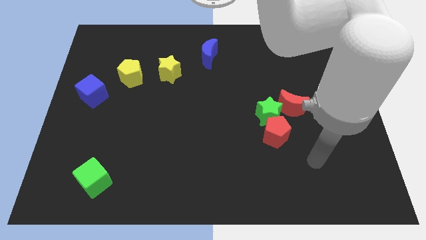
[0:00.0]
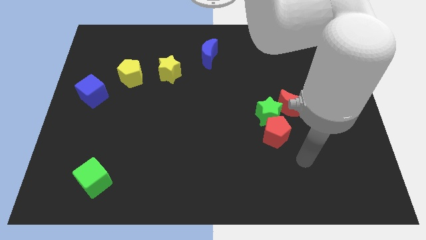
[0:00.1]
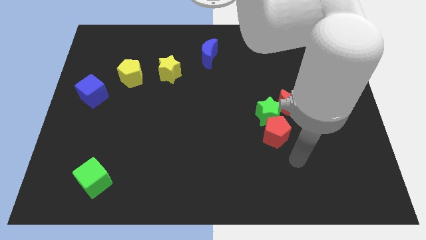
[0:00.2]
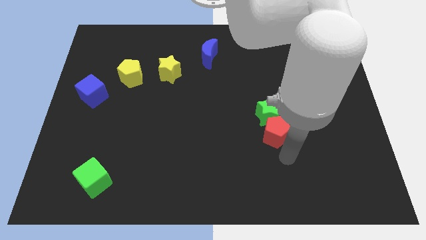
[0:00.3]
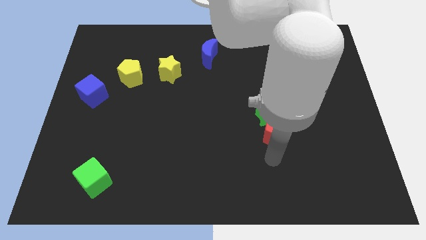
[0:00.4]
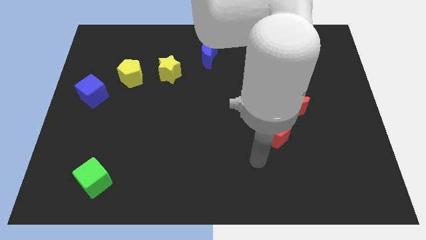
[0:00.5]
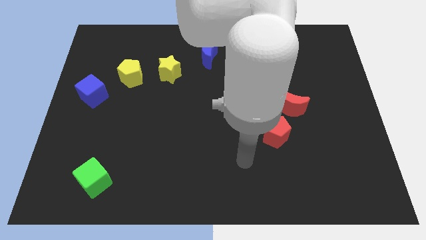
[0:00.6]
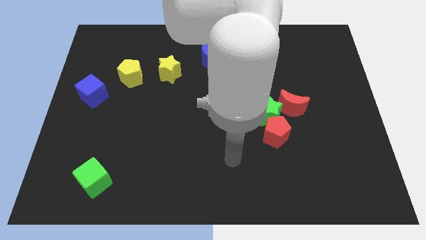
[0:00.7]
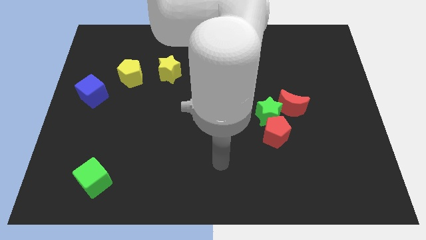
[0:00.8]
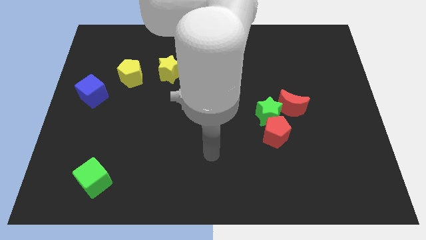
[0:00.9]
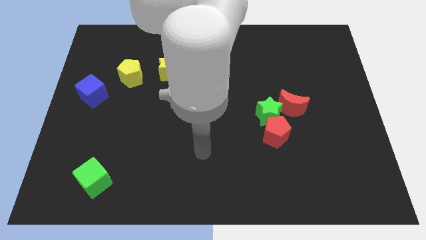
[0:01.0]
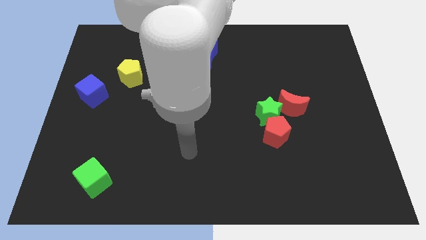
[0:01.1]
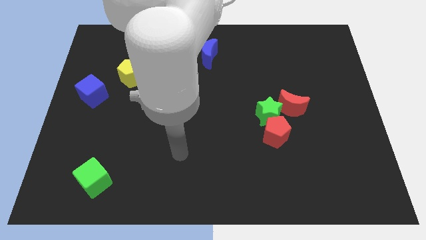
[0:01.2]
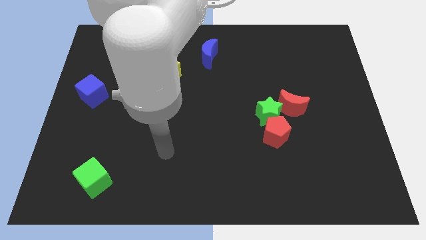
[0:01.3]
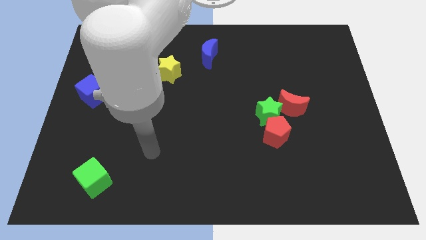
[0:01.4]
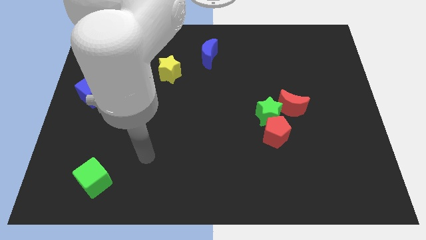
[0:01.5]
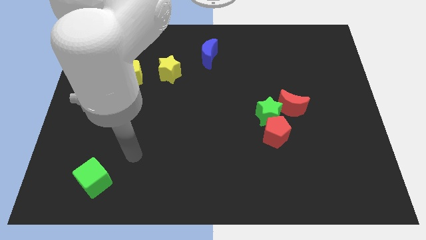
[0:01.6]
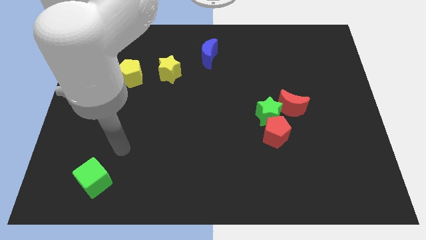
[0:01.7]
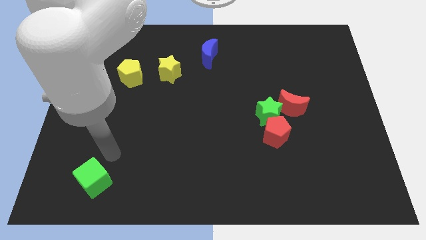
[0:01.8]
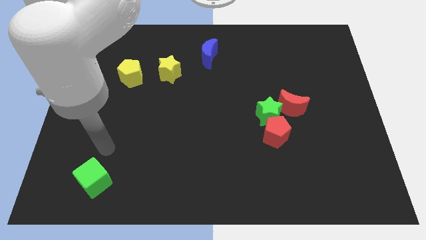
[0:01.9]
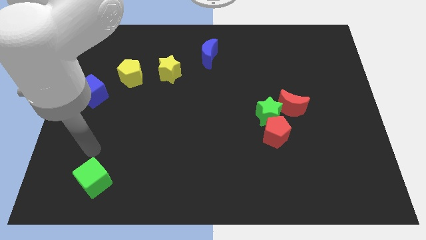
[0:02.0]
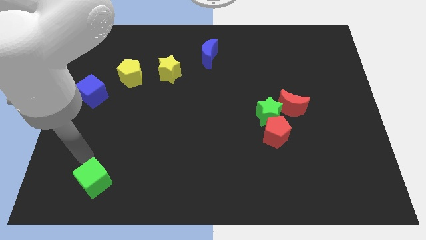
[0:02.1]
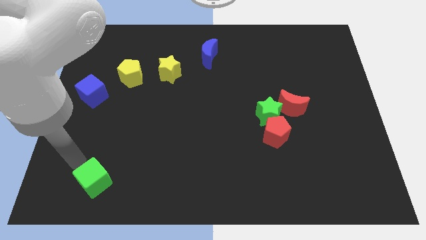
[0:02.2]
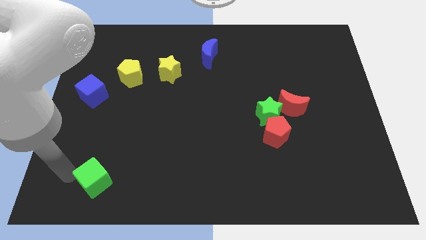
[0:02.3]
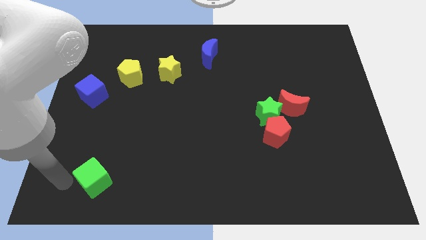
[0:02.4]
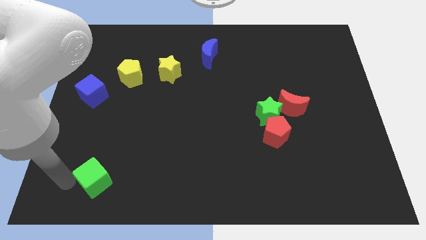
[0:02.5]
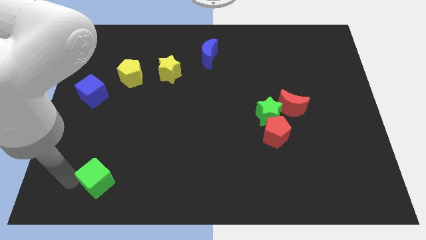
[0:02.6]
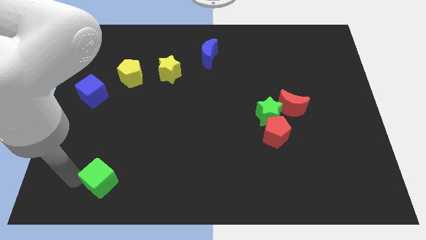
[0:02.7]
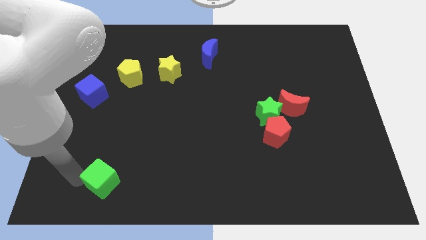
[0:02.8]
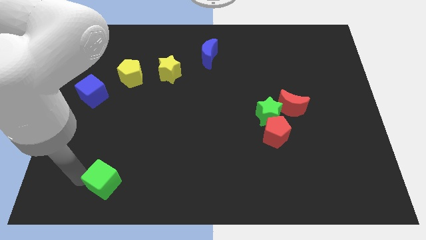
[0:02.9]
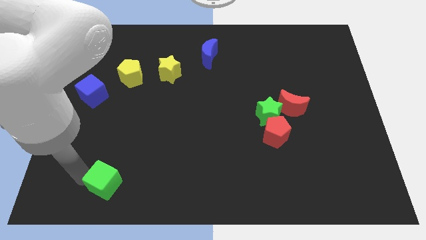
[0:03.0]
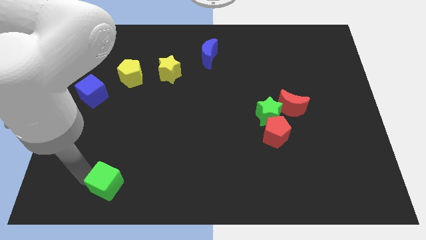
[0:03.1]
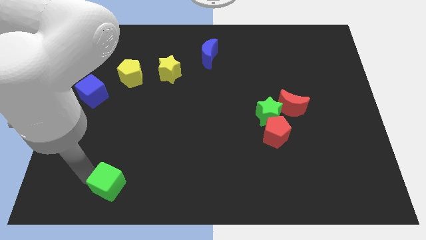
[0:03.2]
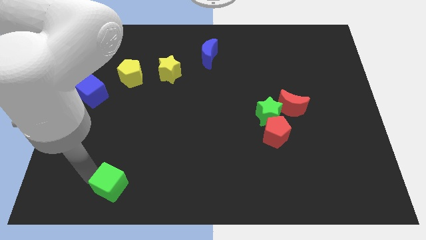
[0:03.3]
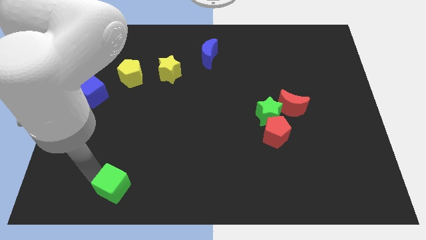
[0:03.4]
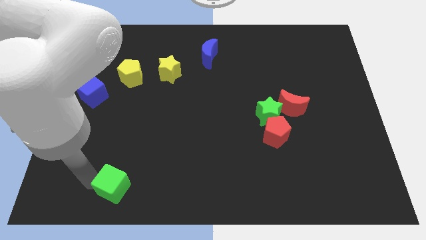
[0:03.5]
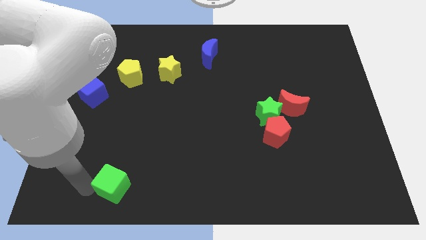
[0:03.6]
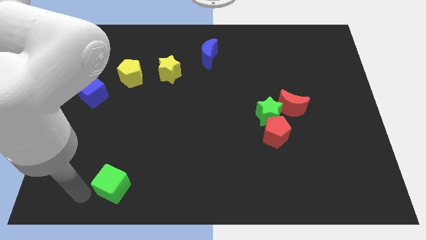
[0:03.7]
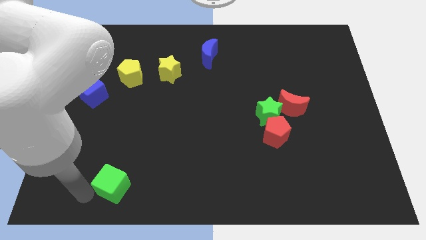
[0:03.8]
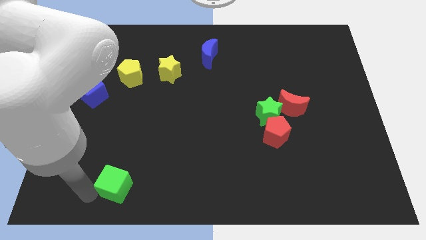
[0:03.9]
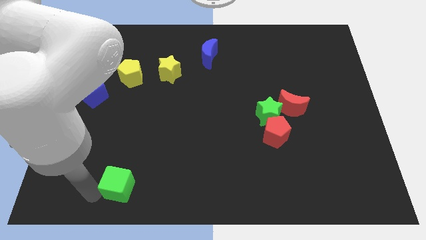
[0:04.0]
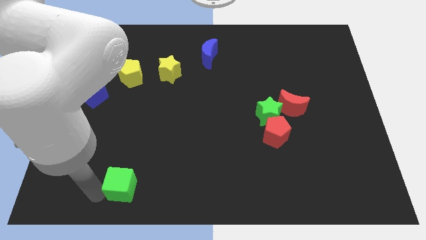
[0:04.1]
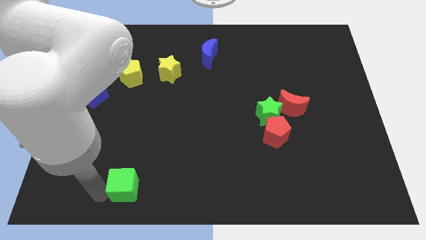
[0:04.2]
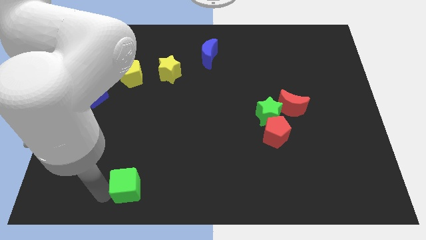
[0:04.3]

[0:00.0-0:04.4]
move the green cube a bit to the right

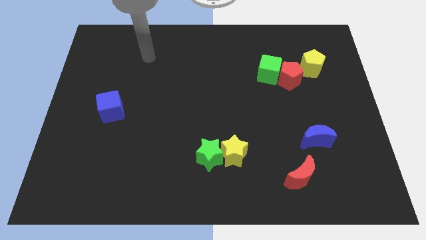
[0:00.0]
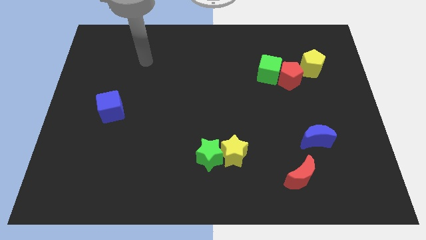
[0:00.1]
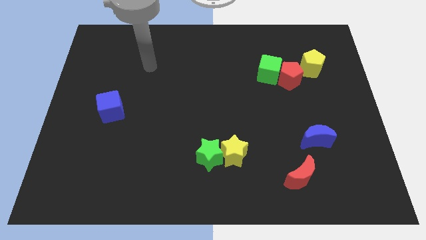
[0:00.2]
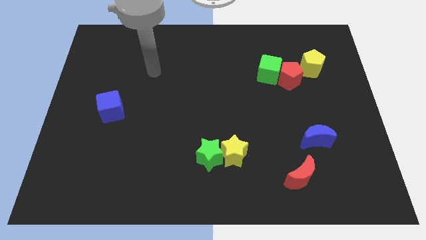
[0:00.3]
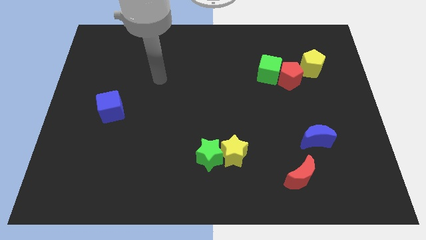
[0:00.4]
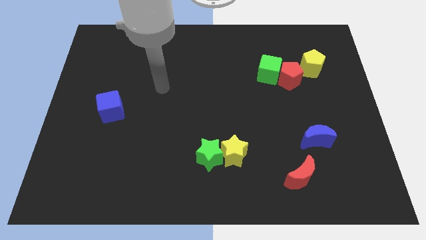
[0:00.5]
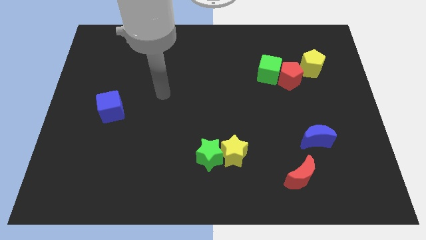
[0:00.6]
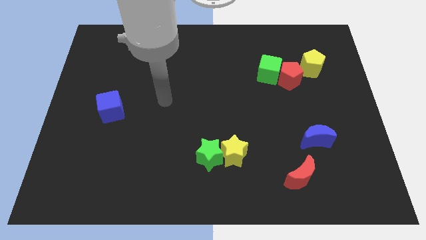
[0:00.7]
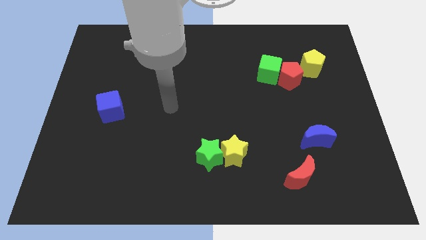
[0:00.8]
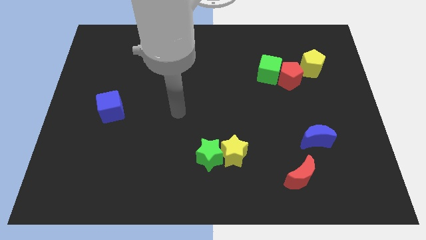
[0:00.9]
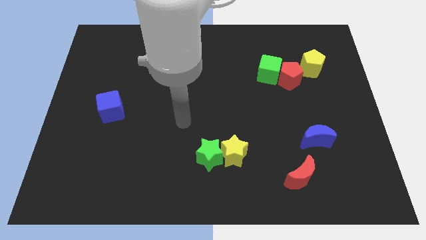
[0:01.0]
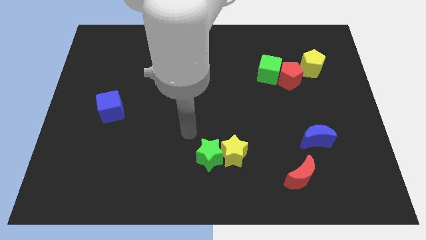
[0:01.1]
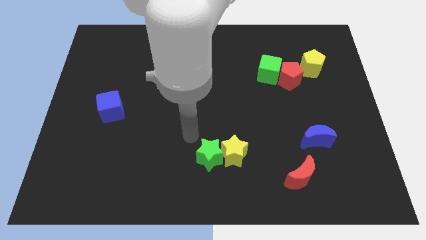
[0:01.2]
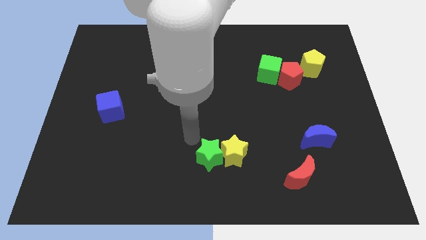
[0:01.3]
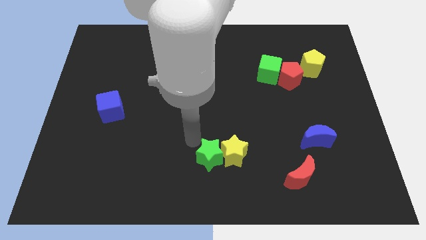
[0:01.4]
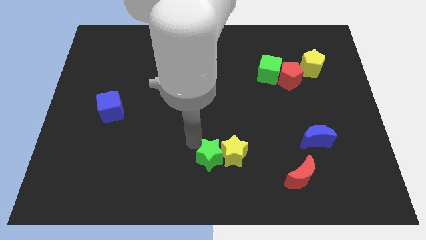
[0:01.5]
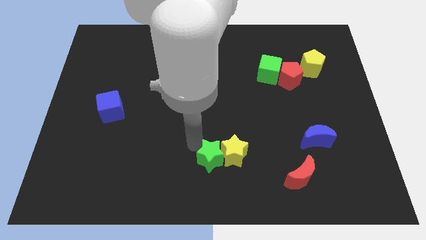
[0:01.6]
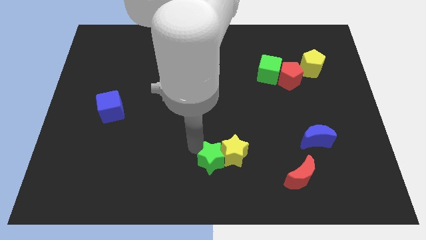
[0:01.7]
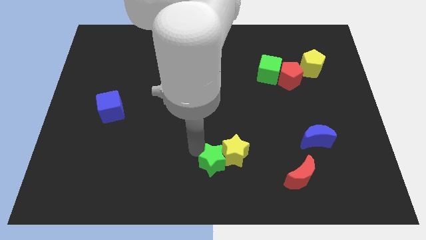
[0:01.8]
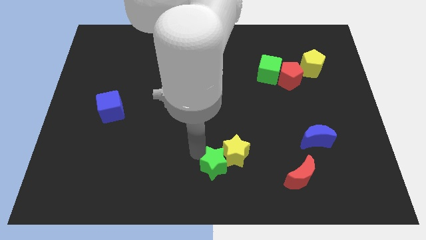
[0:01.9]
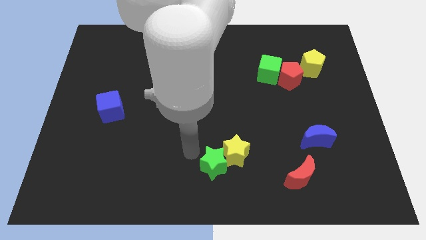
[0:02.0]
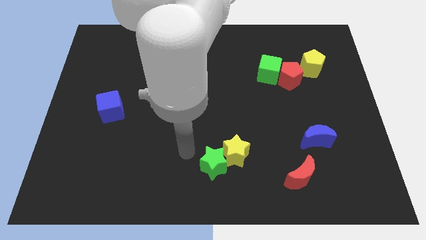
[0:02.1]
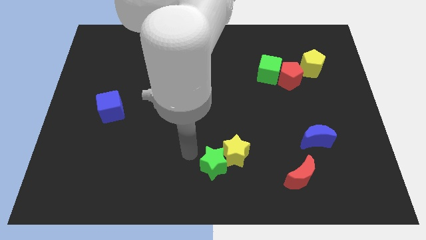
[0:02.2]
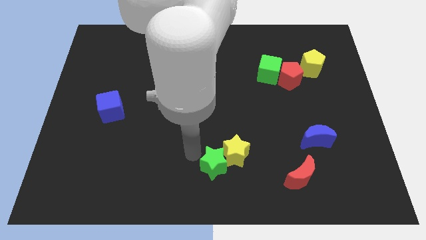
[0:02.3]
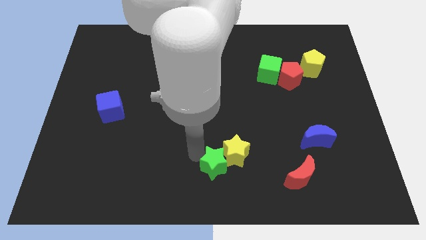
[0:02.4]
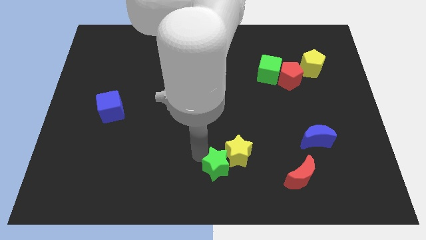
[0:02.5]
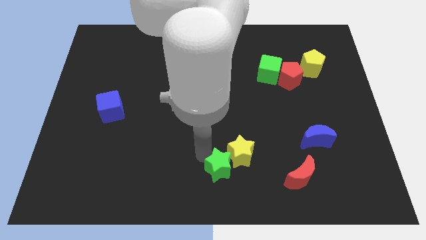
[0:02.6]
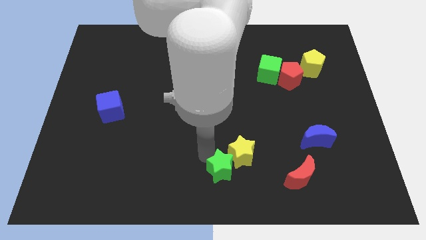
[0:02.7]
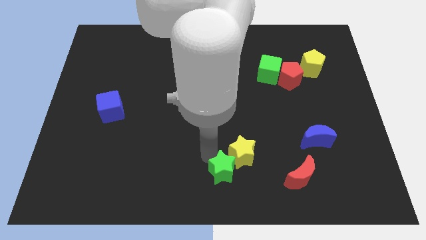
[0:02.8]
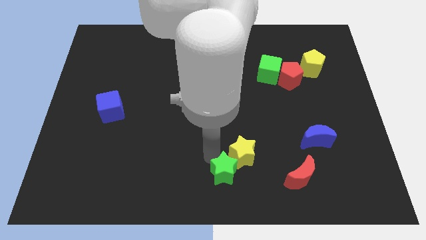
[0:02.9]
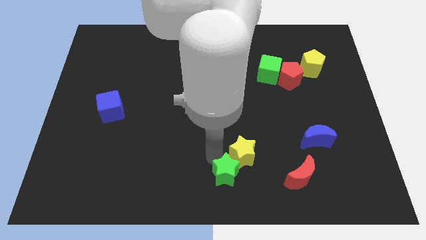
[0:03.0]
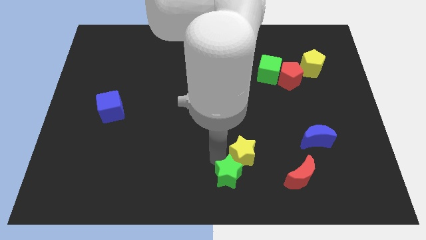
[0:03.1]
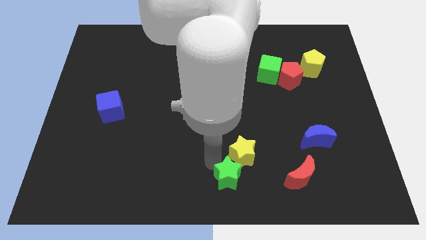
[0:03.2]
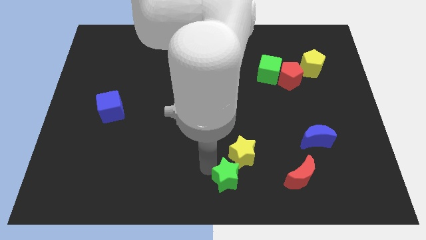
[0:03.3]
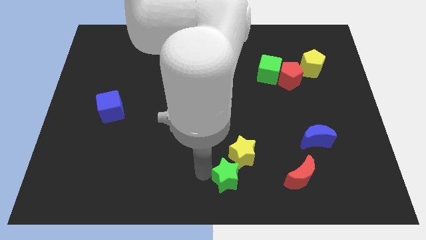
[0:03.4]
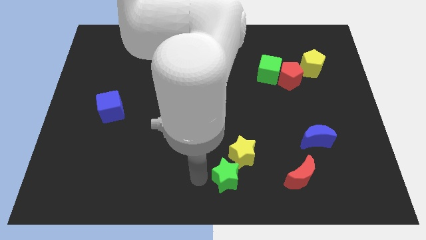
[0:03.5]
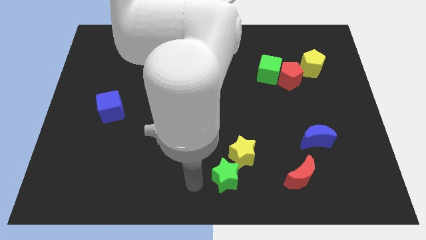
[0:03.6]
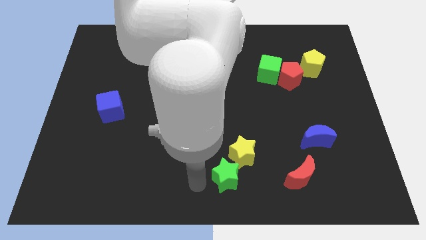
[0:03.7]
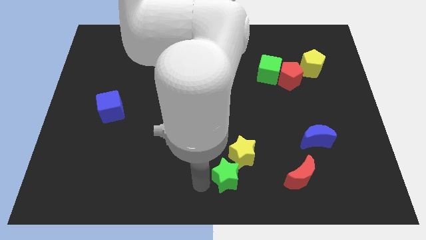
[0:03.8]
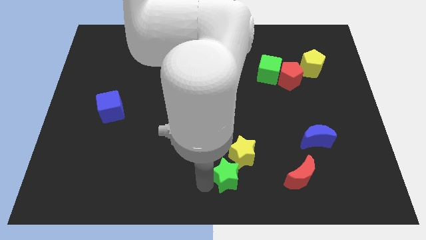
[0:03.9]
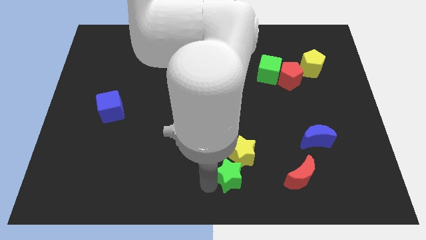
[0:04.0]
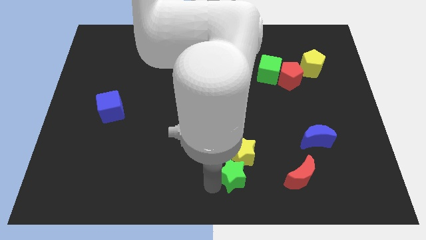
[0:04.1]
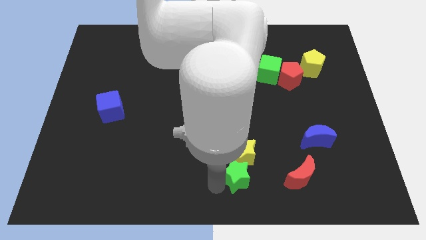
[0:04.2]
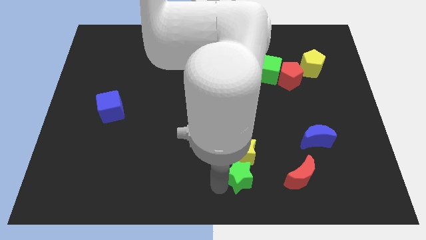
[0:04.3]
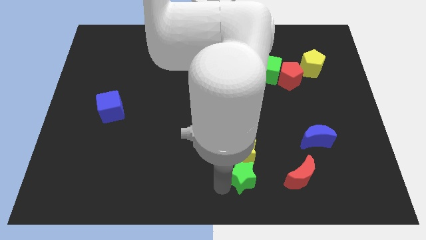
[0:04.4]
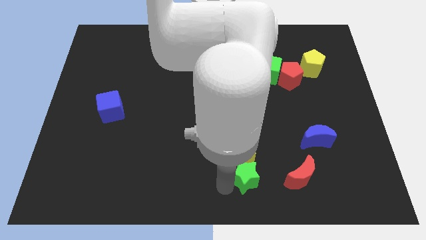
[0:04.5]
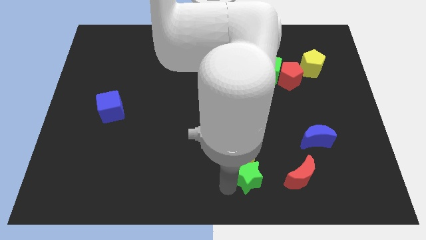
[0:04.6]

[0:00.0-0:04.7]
slide the green star to the right a little bit
